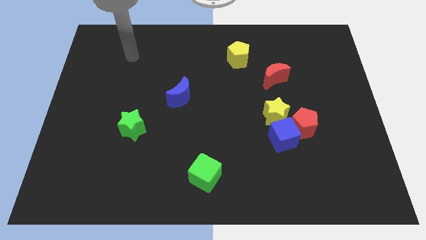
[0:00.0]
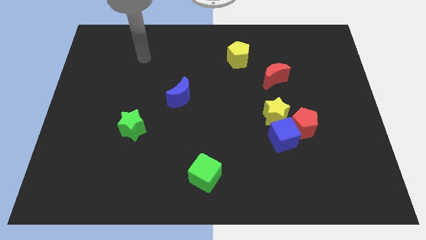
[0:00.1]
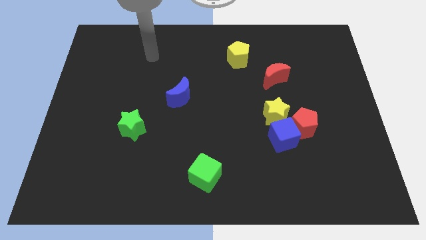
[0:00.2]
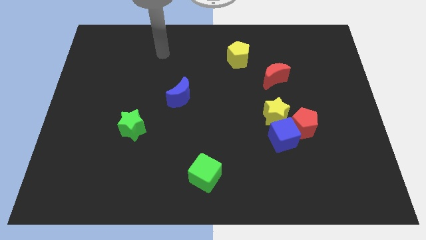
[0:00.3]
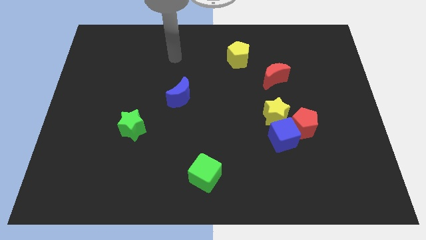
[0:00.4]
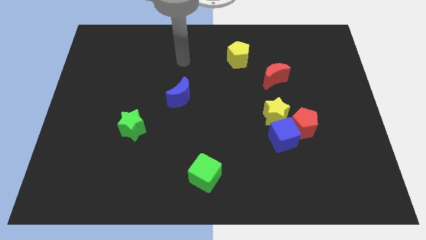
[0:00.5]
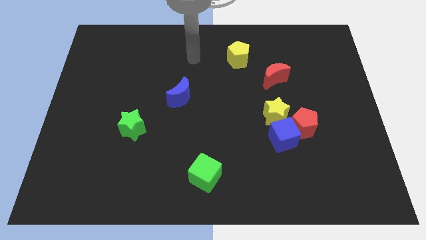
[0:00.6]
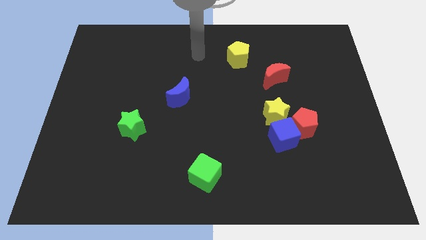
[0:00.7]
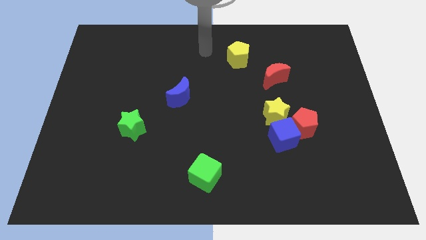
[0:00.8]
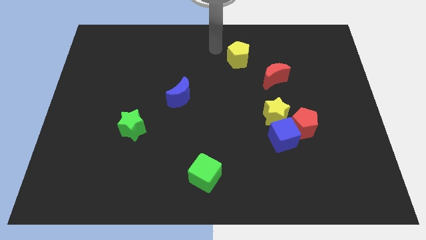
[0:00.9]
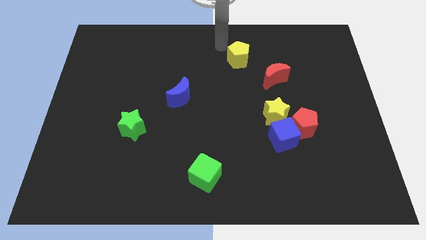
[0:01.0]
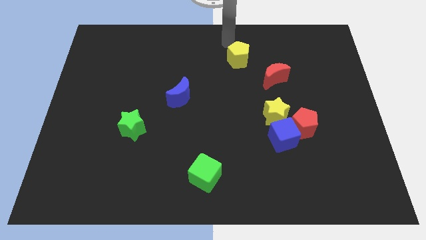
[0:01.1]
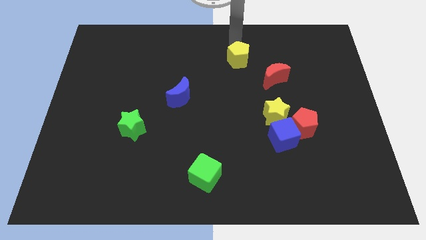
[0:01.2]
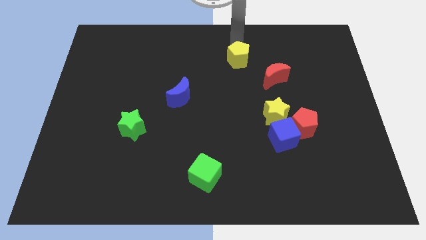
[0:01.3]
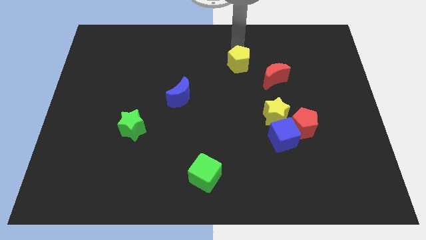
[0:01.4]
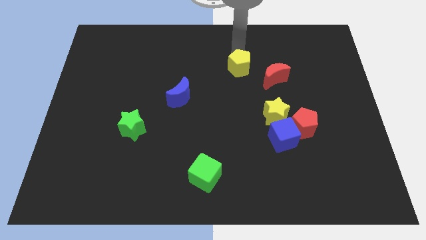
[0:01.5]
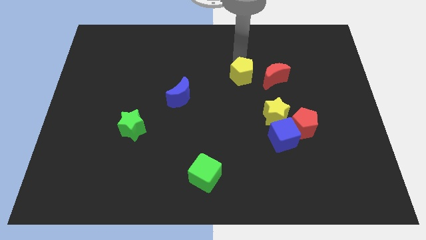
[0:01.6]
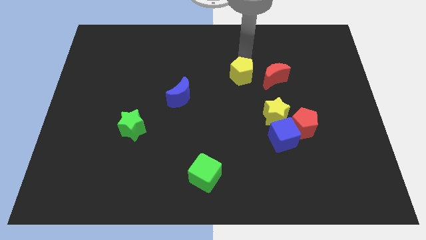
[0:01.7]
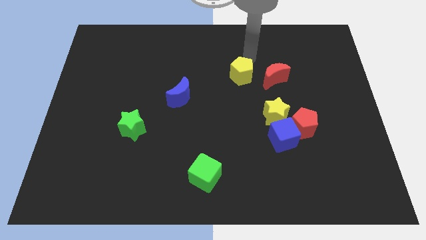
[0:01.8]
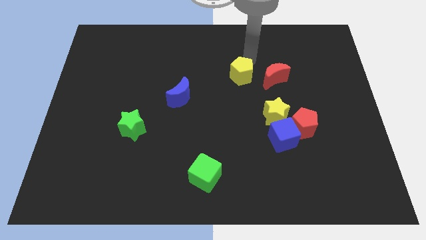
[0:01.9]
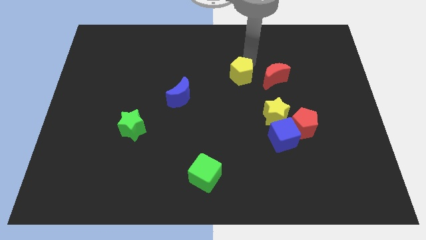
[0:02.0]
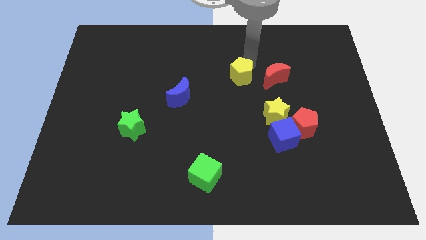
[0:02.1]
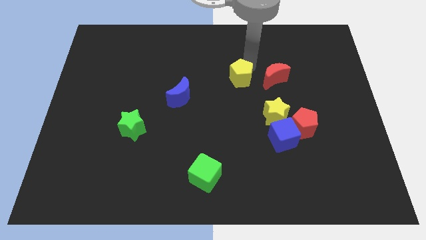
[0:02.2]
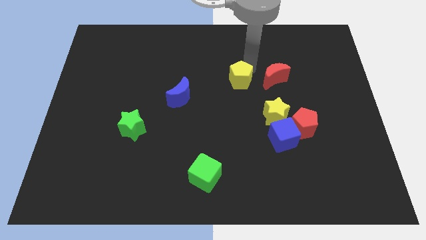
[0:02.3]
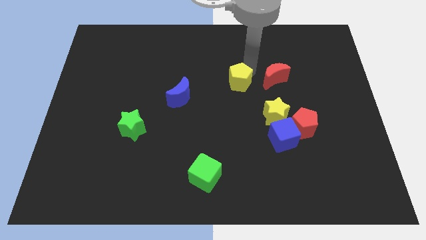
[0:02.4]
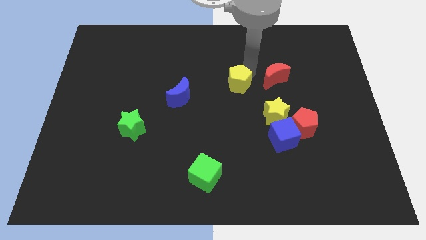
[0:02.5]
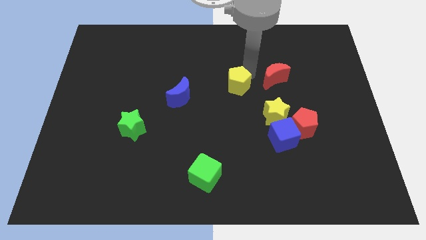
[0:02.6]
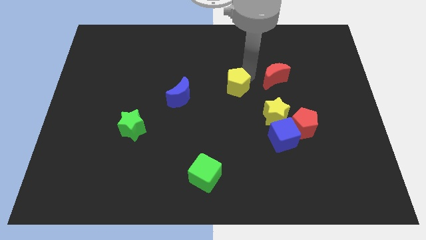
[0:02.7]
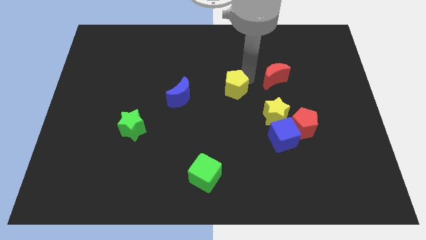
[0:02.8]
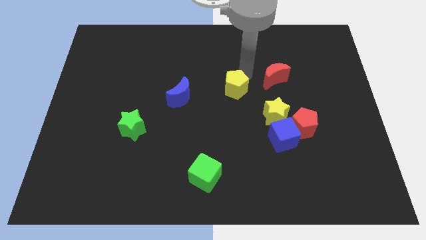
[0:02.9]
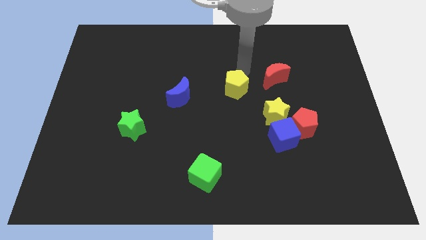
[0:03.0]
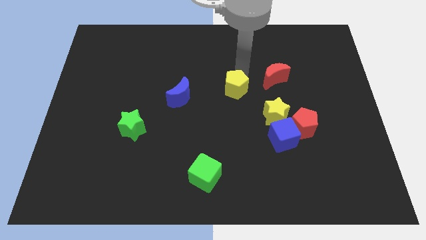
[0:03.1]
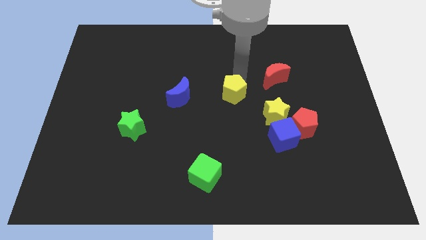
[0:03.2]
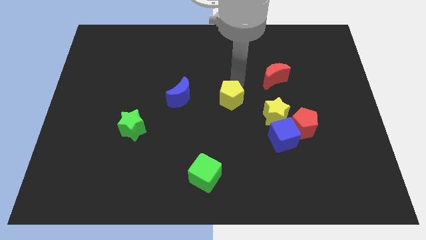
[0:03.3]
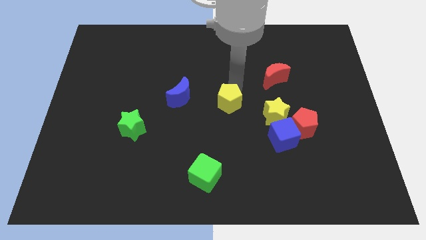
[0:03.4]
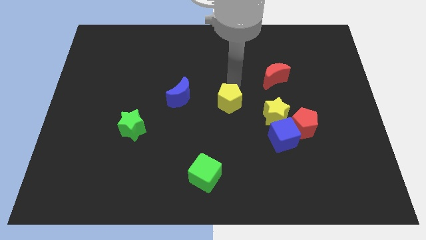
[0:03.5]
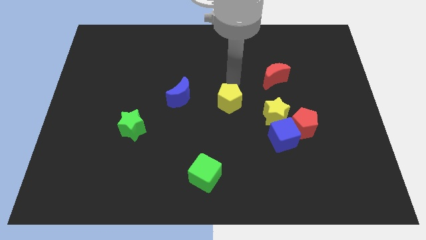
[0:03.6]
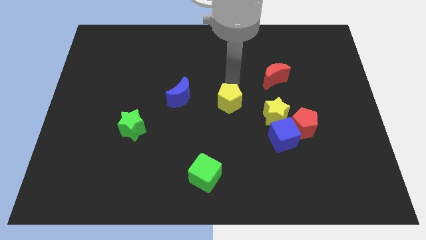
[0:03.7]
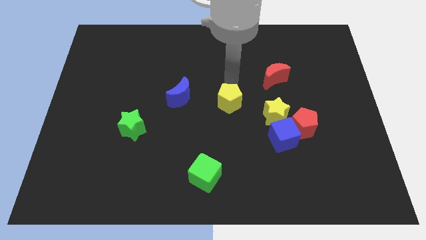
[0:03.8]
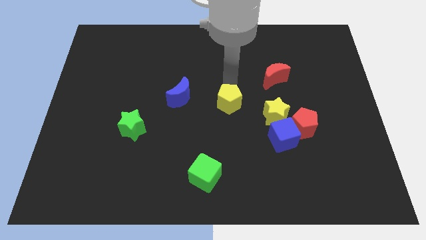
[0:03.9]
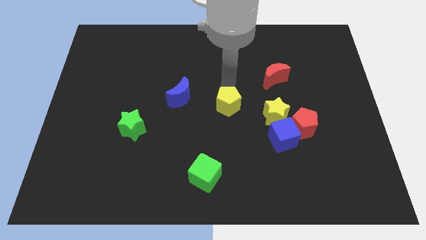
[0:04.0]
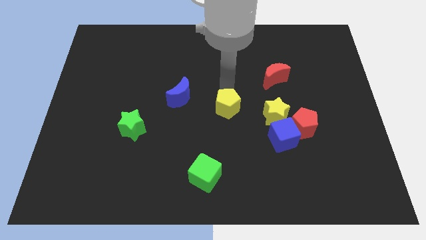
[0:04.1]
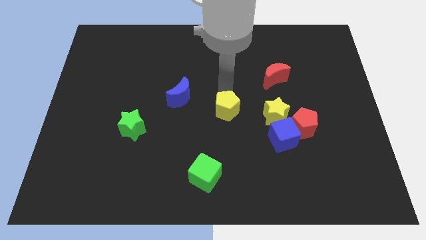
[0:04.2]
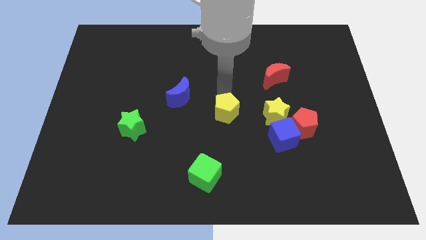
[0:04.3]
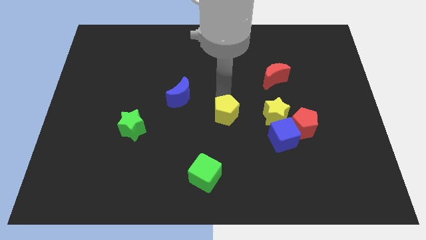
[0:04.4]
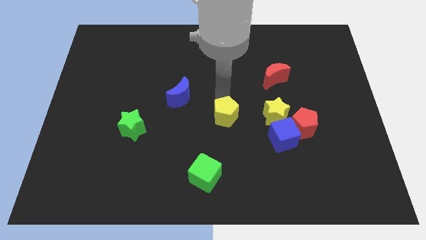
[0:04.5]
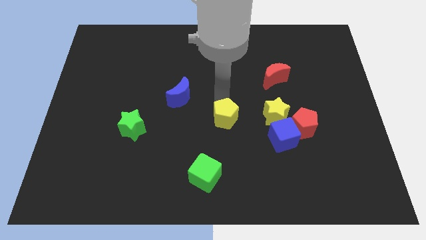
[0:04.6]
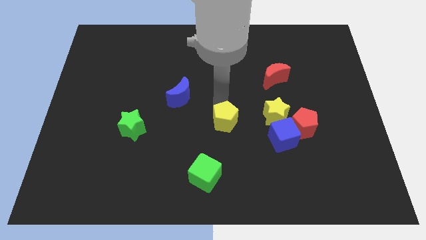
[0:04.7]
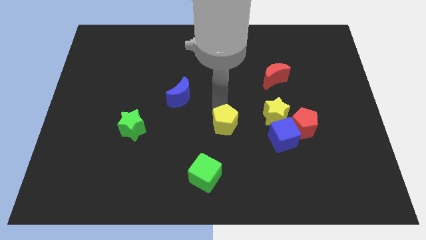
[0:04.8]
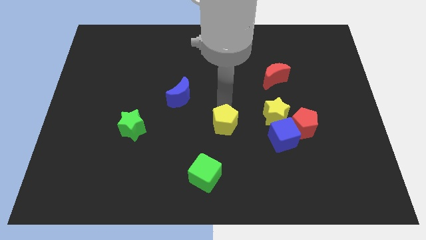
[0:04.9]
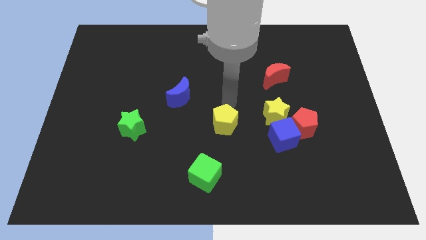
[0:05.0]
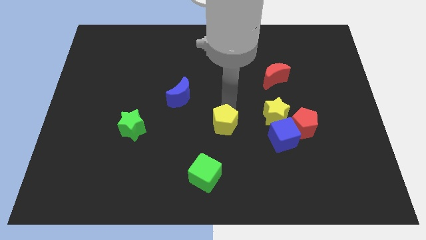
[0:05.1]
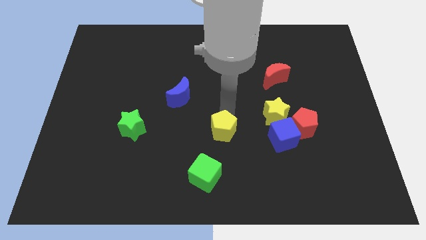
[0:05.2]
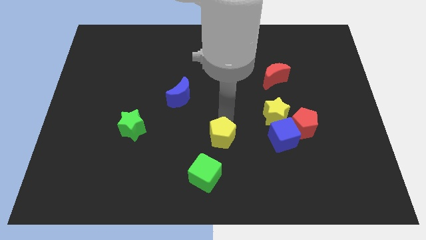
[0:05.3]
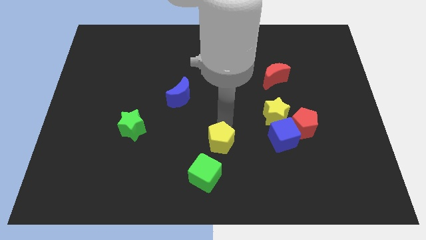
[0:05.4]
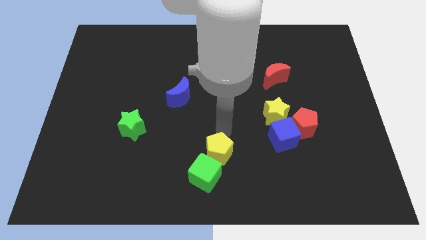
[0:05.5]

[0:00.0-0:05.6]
push the yellow pentagon towards the green cube

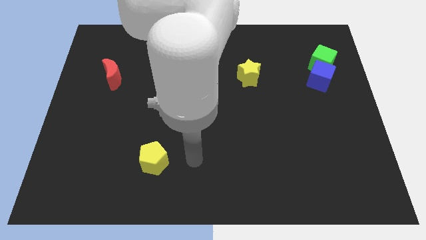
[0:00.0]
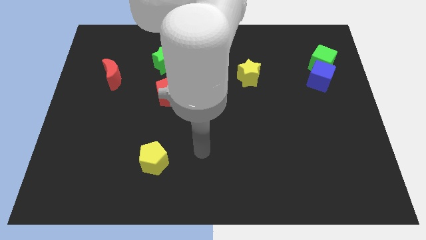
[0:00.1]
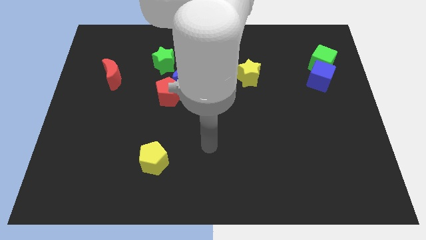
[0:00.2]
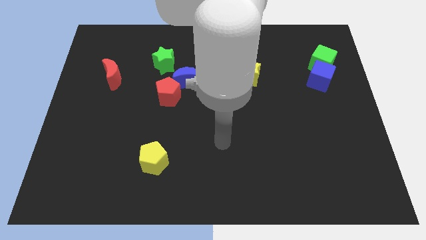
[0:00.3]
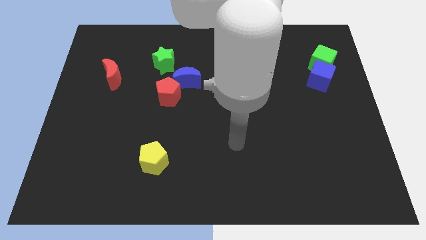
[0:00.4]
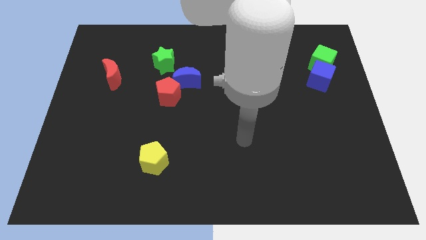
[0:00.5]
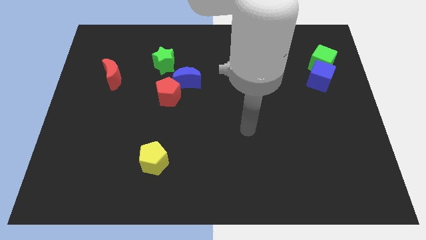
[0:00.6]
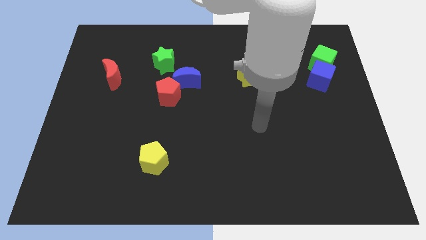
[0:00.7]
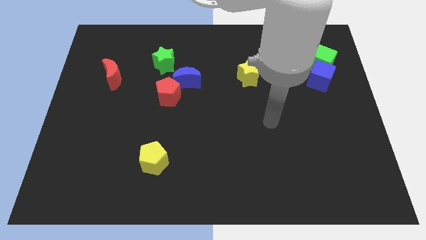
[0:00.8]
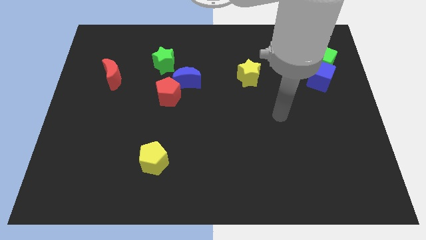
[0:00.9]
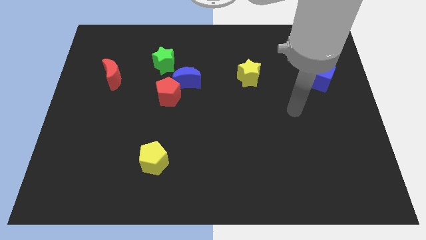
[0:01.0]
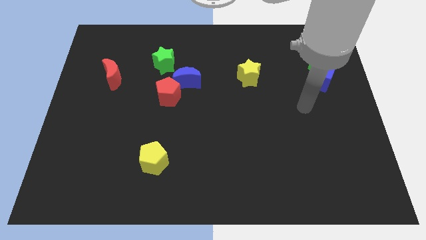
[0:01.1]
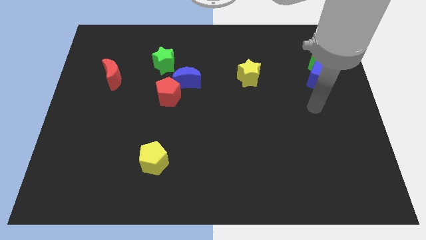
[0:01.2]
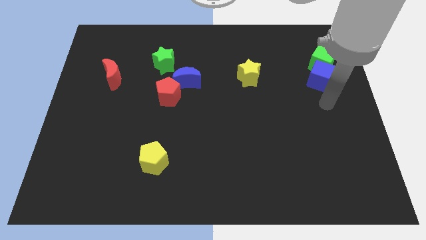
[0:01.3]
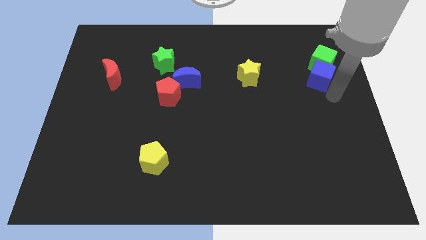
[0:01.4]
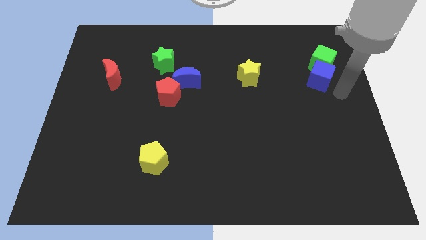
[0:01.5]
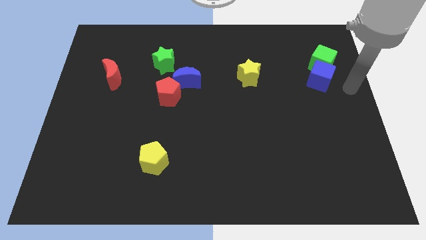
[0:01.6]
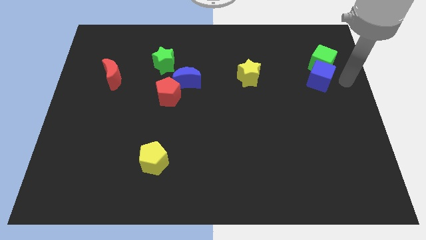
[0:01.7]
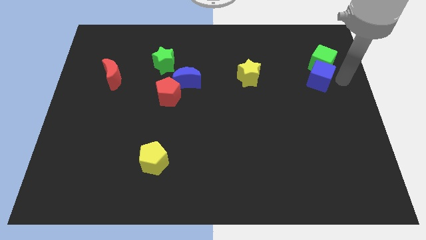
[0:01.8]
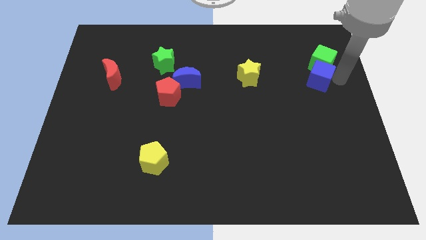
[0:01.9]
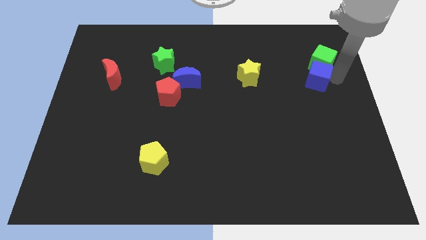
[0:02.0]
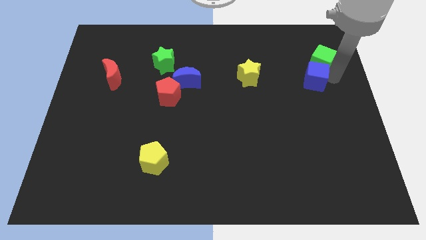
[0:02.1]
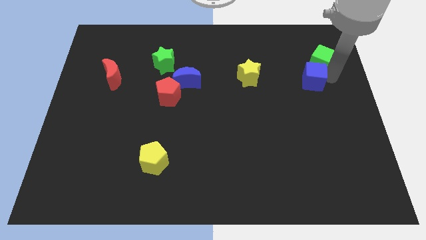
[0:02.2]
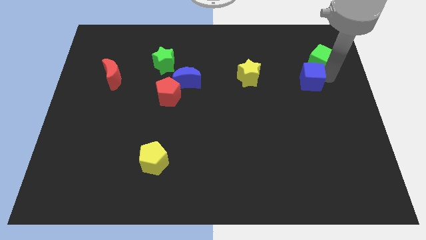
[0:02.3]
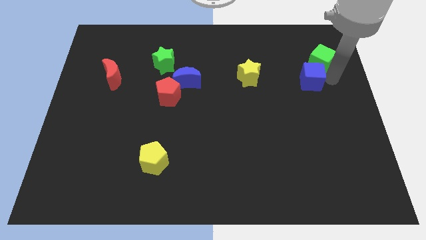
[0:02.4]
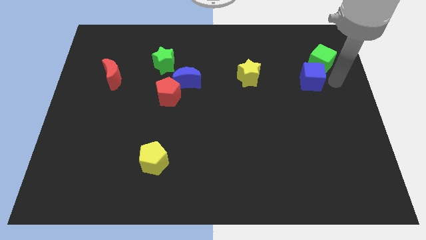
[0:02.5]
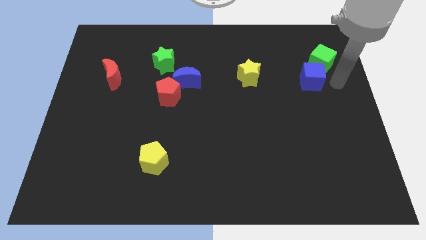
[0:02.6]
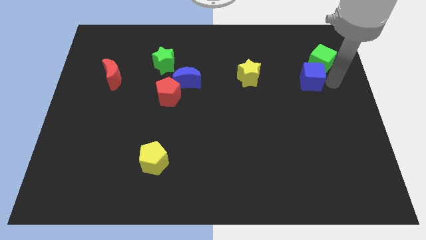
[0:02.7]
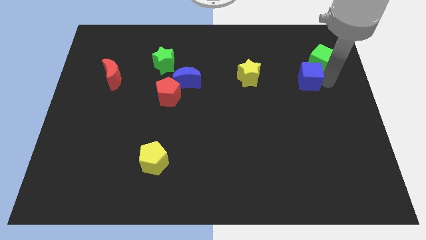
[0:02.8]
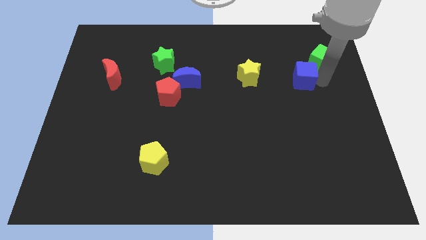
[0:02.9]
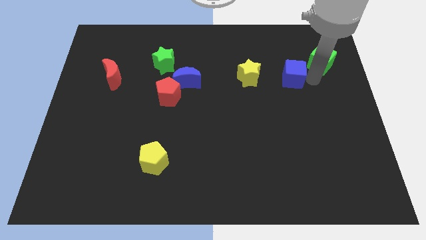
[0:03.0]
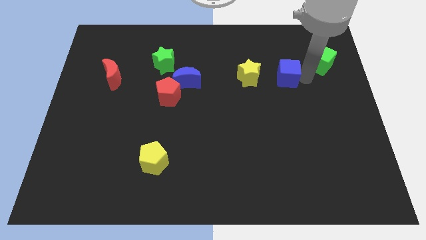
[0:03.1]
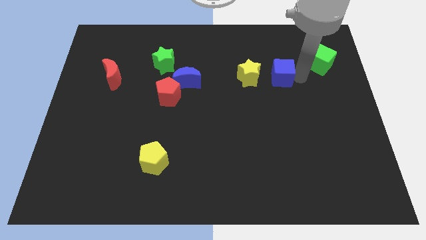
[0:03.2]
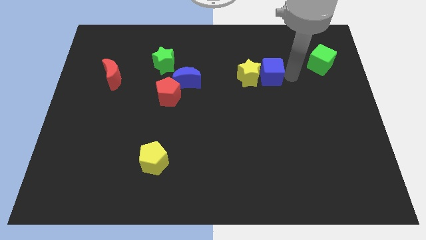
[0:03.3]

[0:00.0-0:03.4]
push the blue cube close to the yellow star
